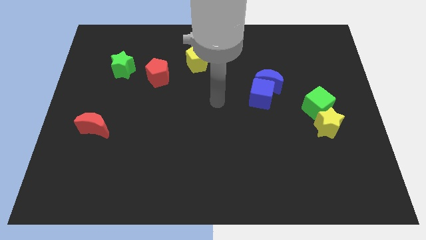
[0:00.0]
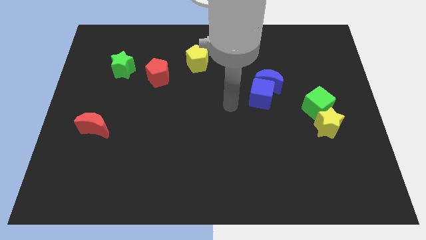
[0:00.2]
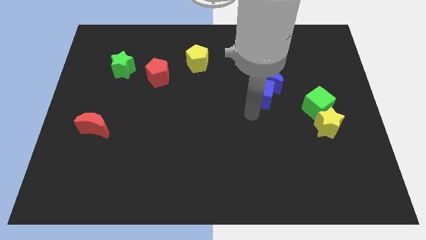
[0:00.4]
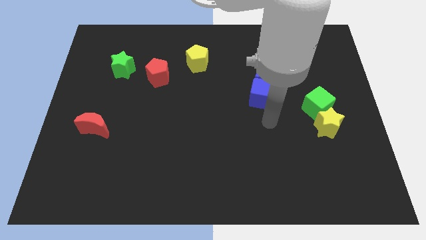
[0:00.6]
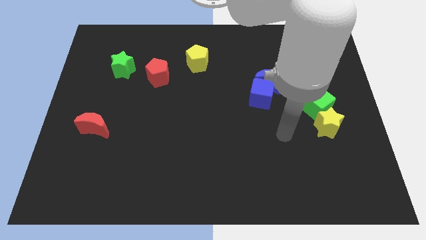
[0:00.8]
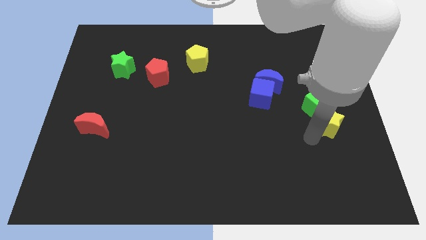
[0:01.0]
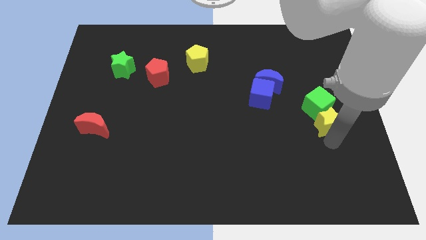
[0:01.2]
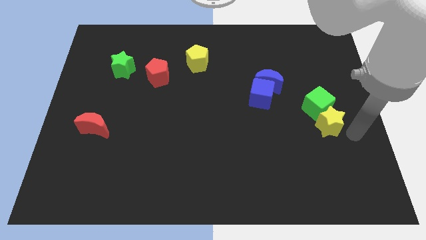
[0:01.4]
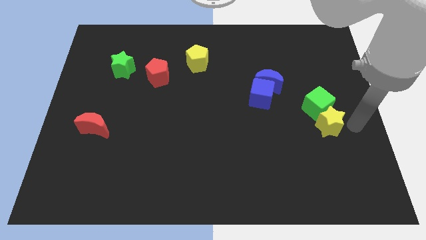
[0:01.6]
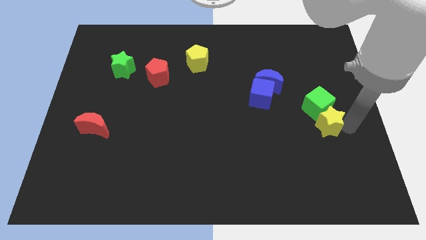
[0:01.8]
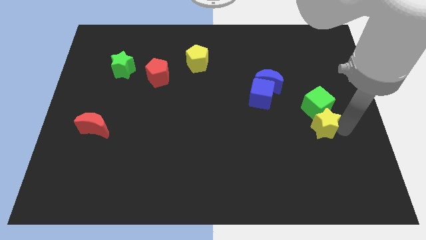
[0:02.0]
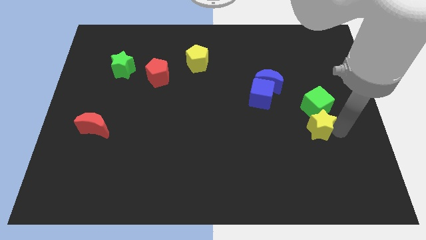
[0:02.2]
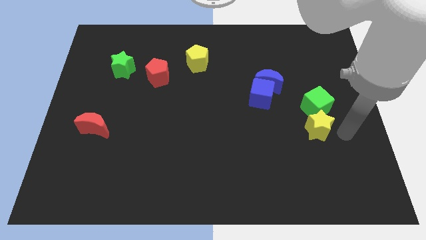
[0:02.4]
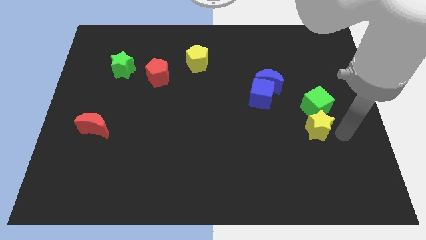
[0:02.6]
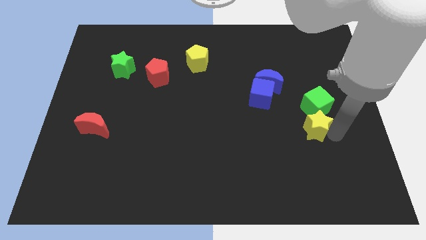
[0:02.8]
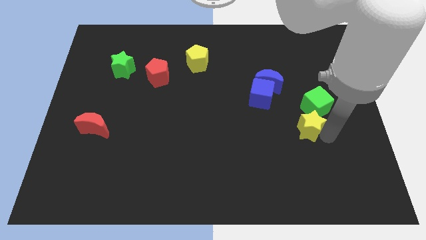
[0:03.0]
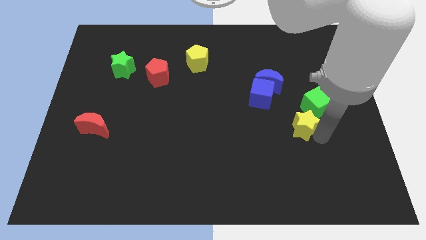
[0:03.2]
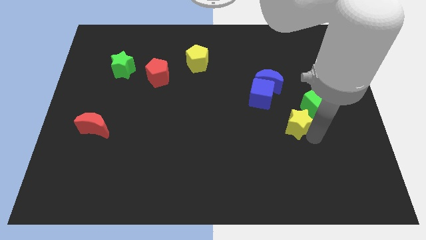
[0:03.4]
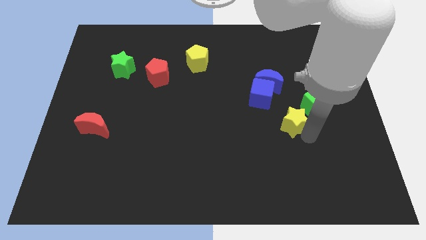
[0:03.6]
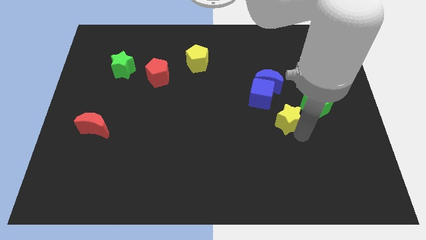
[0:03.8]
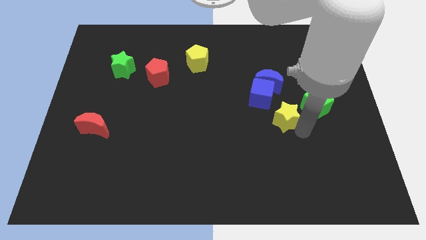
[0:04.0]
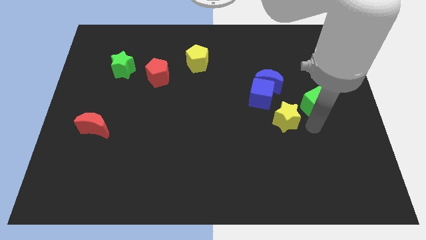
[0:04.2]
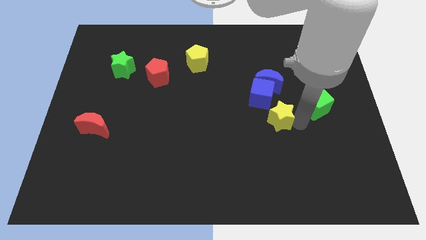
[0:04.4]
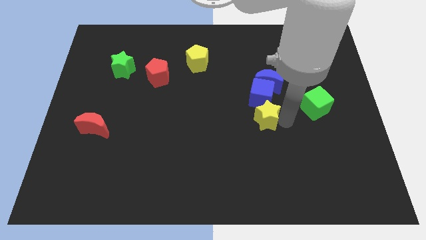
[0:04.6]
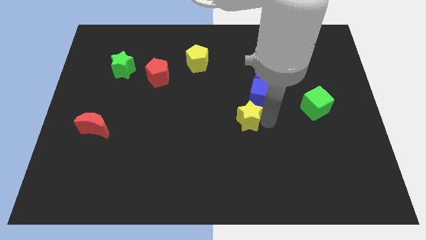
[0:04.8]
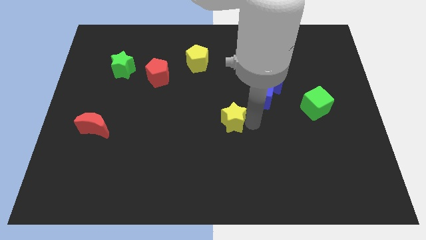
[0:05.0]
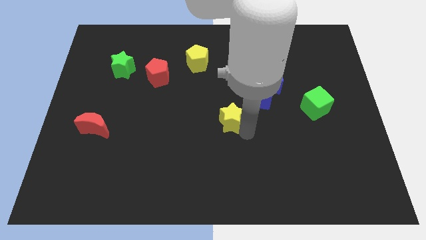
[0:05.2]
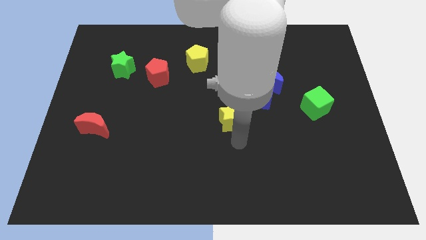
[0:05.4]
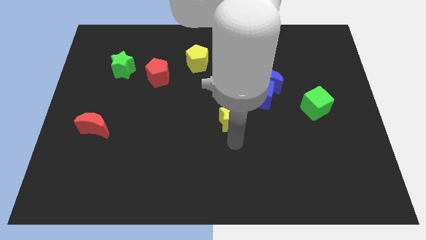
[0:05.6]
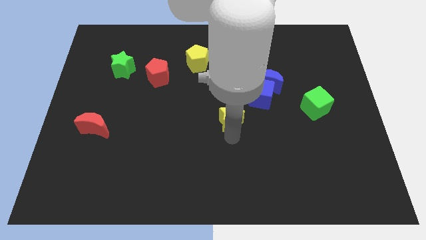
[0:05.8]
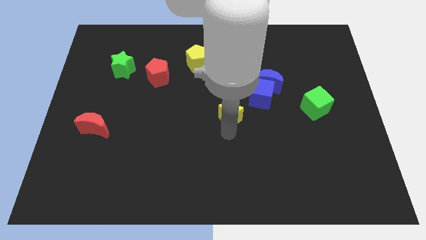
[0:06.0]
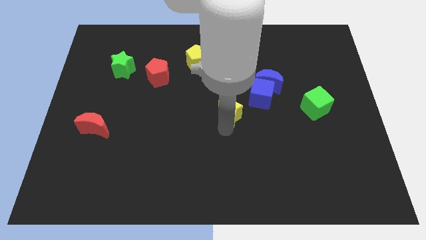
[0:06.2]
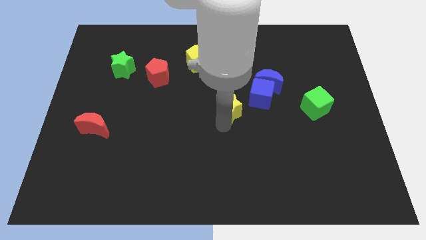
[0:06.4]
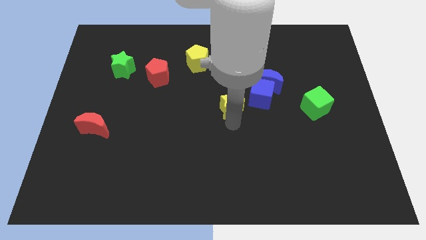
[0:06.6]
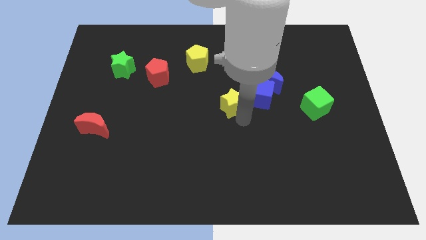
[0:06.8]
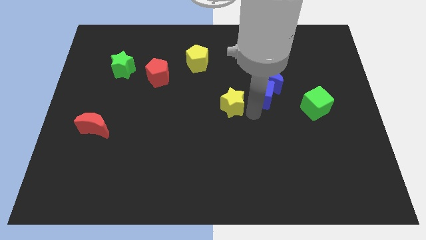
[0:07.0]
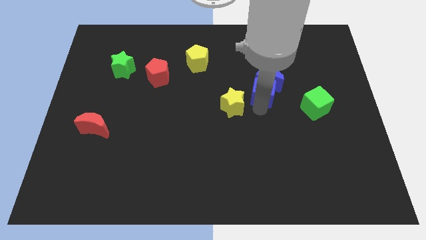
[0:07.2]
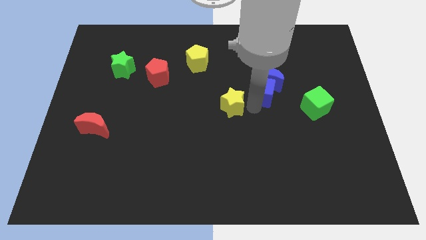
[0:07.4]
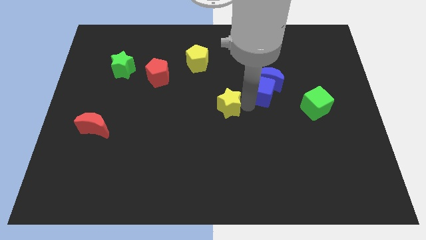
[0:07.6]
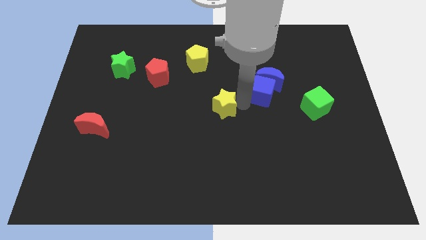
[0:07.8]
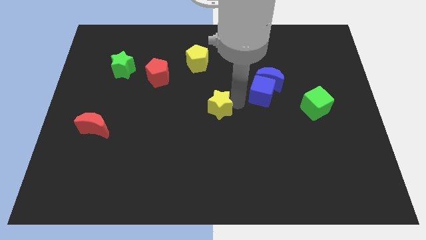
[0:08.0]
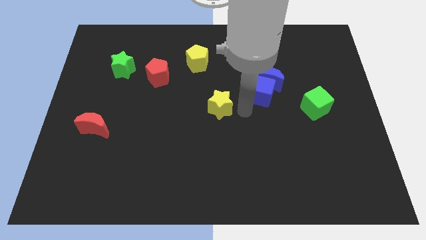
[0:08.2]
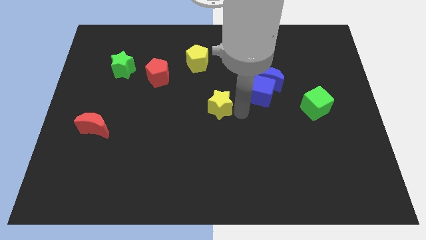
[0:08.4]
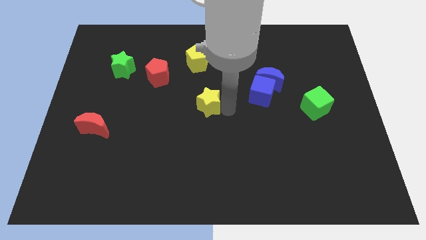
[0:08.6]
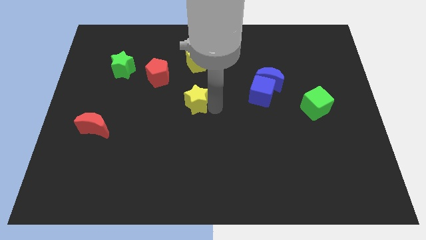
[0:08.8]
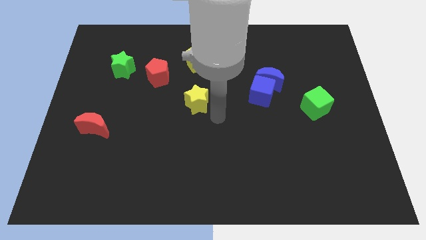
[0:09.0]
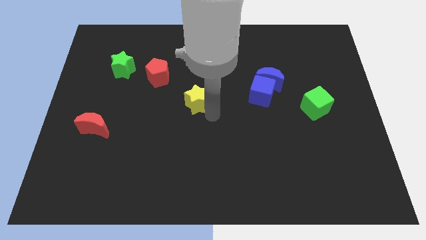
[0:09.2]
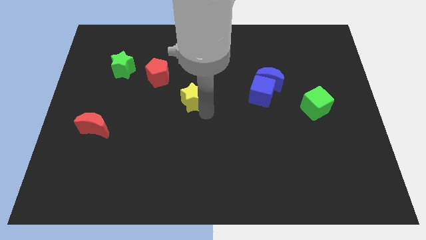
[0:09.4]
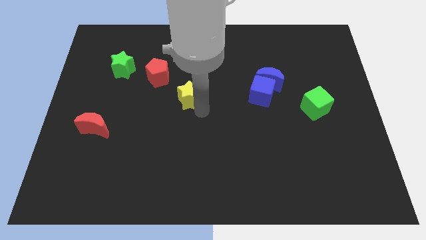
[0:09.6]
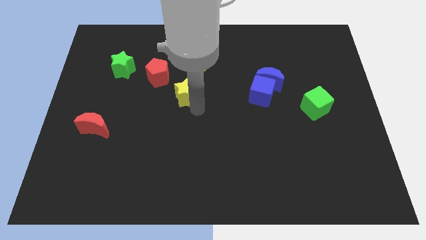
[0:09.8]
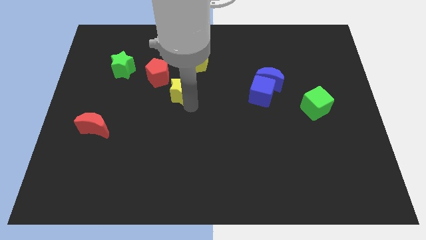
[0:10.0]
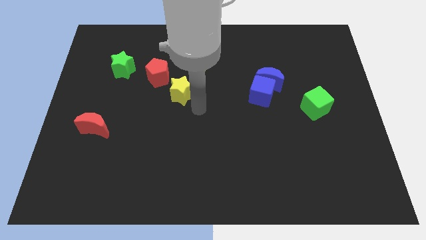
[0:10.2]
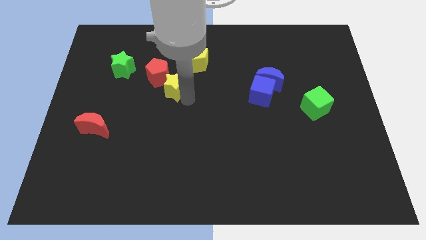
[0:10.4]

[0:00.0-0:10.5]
slide the yellow star close to the red pentagon

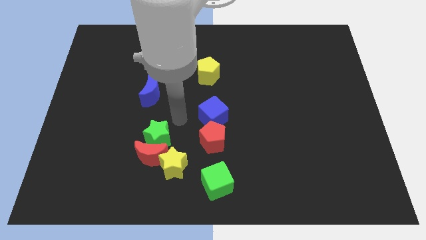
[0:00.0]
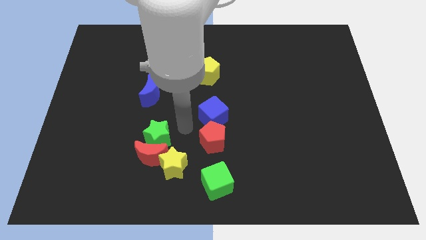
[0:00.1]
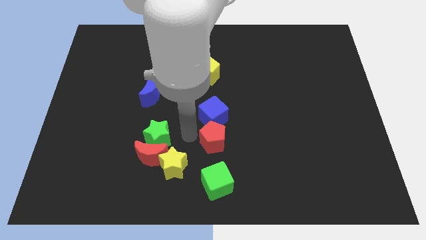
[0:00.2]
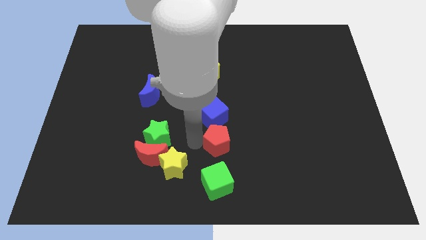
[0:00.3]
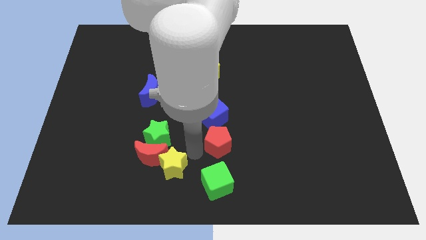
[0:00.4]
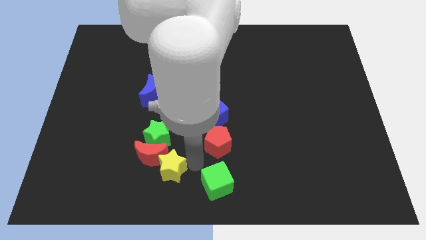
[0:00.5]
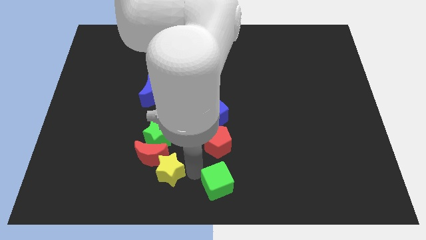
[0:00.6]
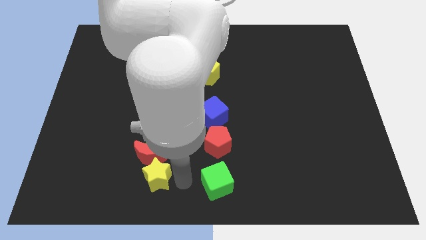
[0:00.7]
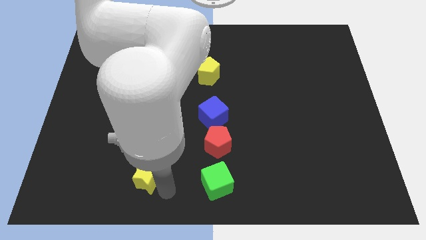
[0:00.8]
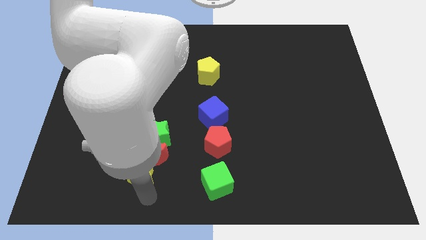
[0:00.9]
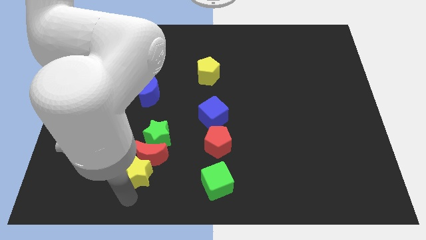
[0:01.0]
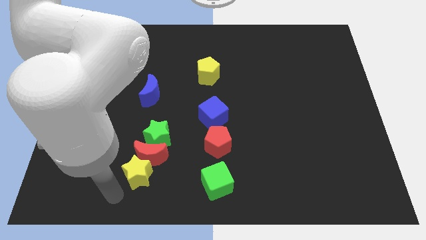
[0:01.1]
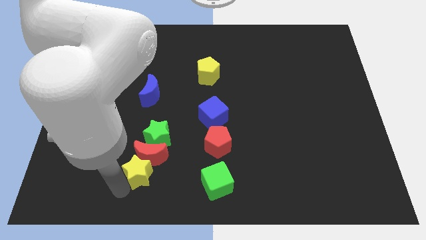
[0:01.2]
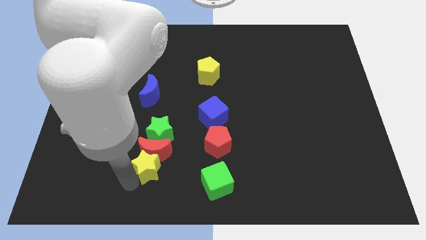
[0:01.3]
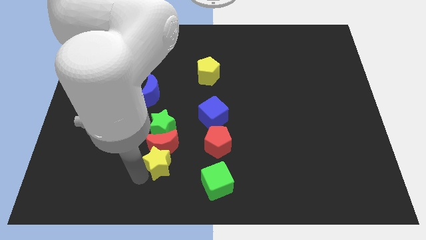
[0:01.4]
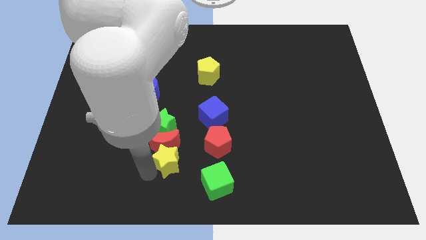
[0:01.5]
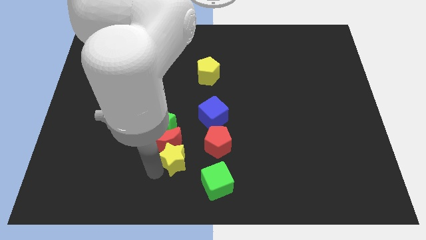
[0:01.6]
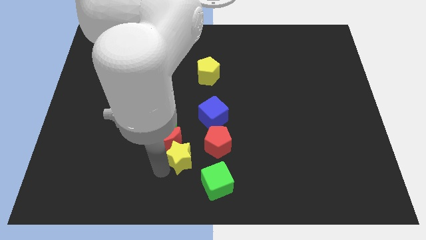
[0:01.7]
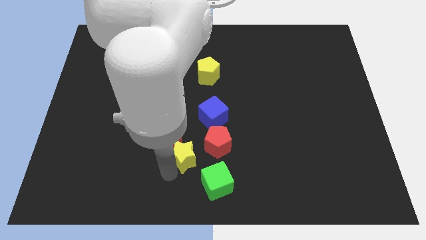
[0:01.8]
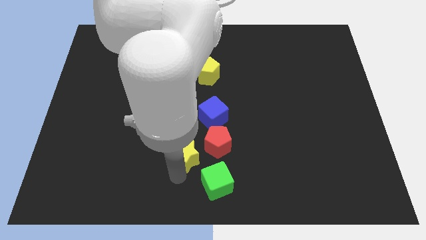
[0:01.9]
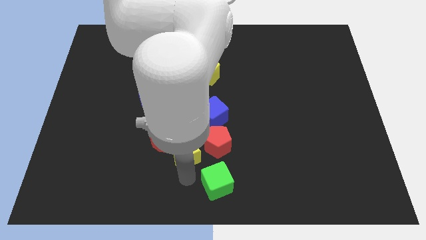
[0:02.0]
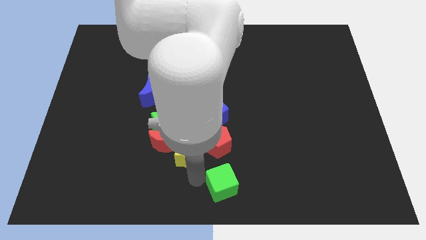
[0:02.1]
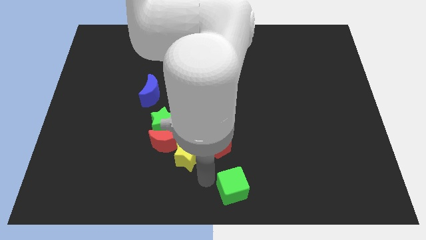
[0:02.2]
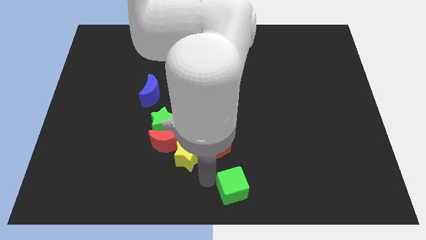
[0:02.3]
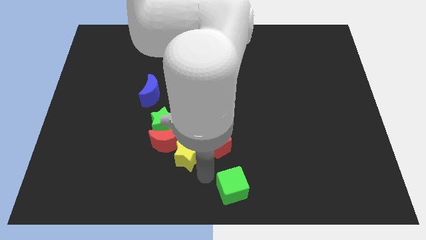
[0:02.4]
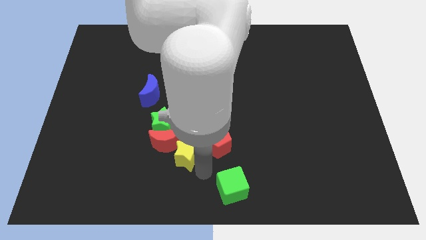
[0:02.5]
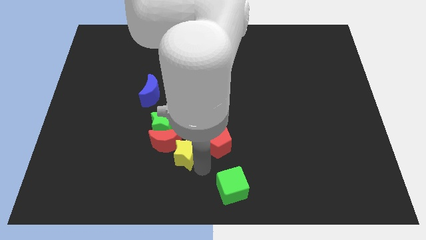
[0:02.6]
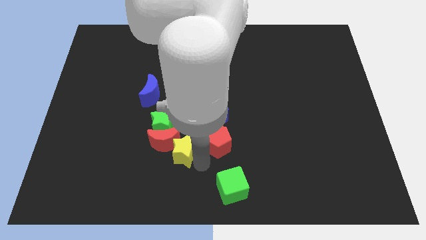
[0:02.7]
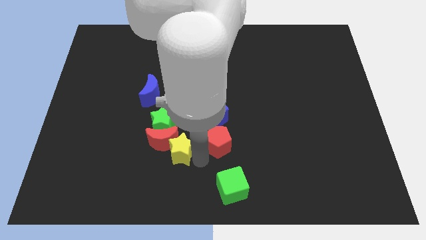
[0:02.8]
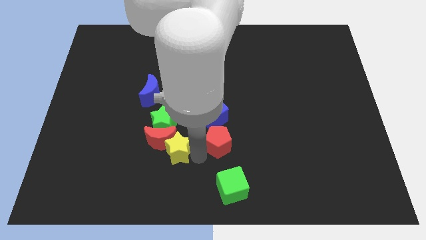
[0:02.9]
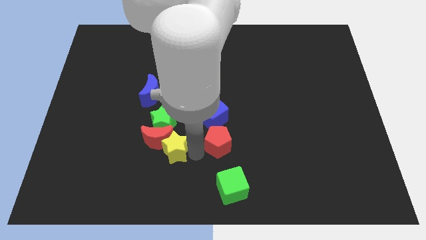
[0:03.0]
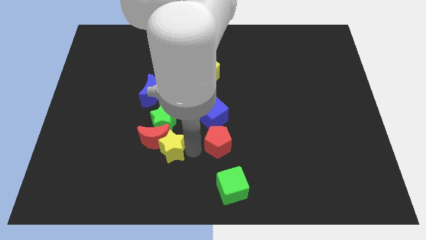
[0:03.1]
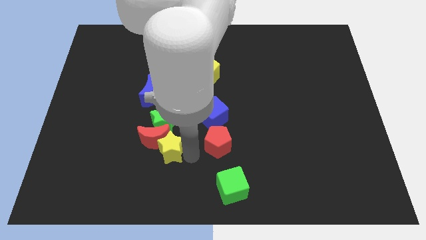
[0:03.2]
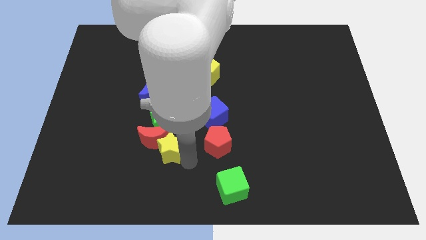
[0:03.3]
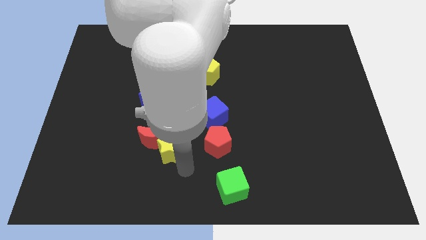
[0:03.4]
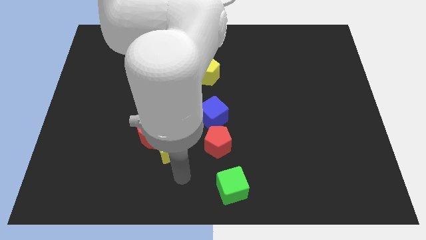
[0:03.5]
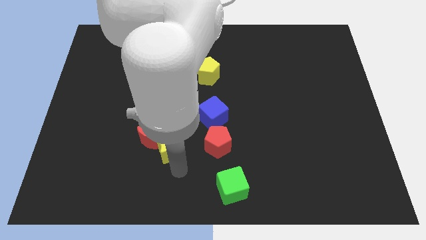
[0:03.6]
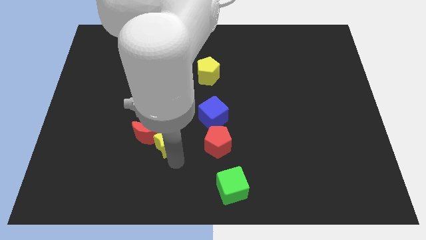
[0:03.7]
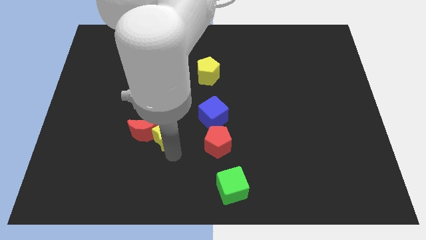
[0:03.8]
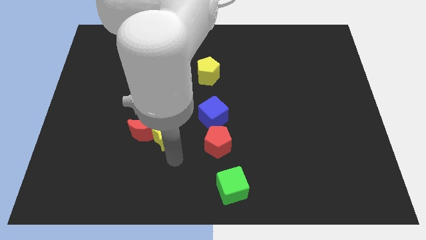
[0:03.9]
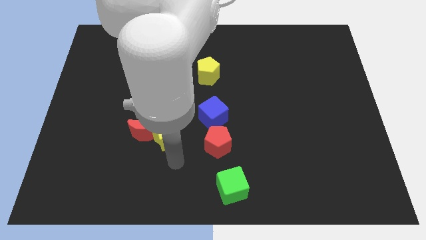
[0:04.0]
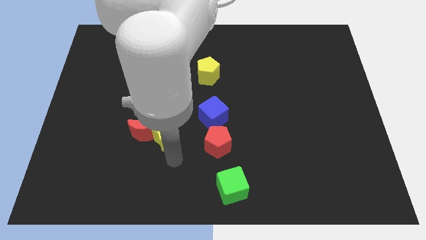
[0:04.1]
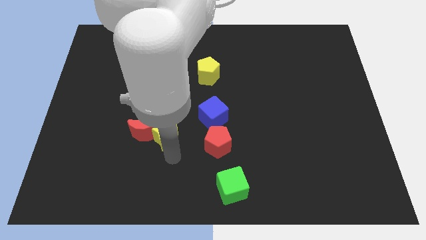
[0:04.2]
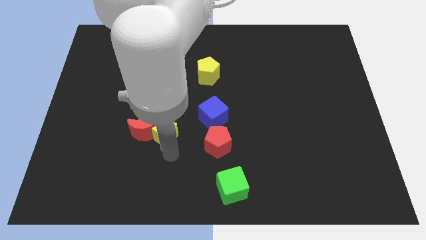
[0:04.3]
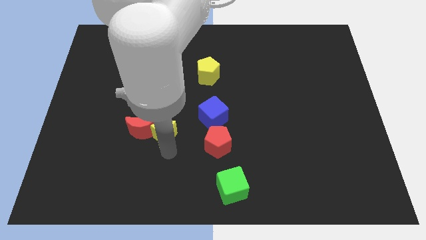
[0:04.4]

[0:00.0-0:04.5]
put the yellow star next to the green star
